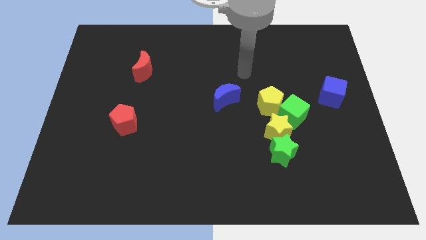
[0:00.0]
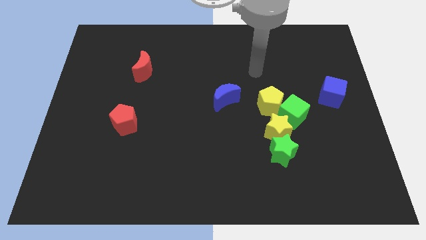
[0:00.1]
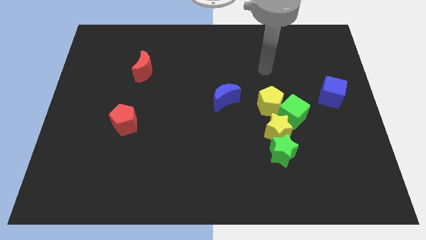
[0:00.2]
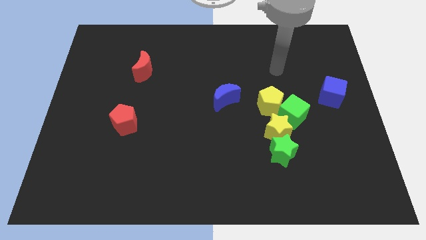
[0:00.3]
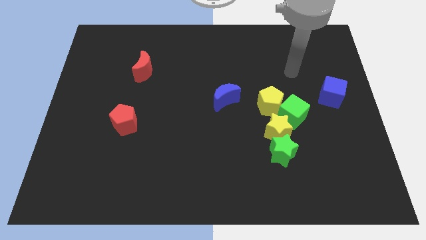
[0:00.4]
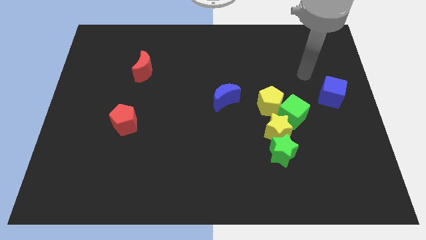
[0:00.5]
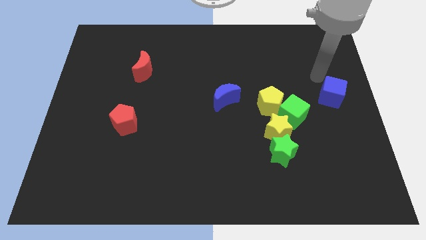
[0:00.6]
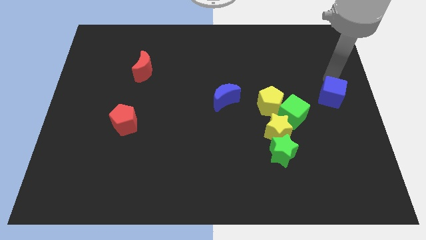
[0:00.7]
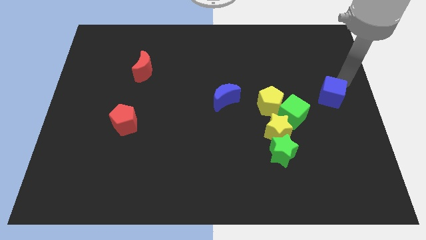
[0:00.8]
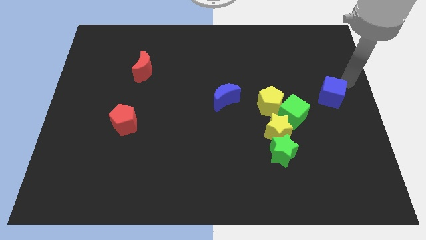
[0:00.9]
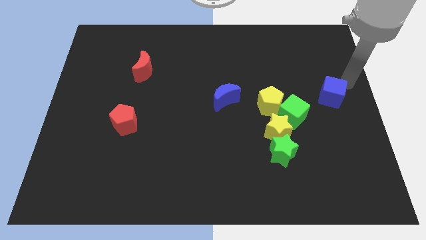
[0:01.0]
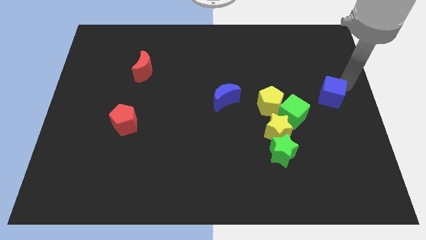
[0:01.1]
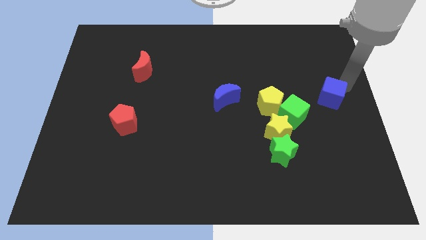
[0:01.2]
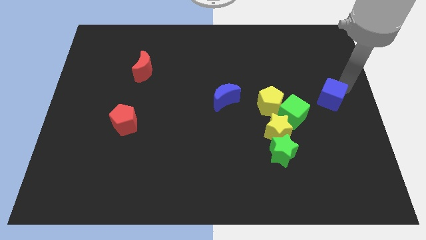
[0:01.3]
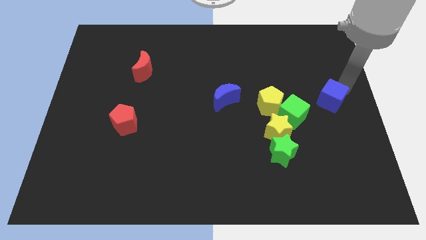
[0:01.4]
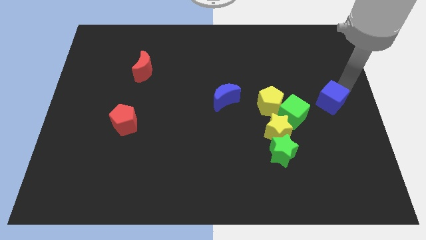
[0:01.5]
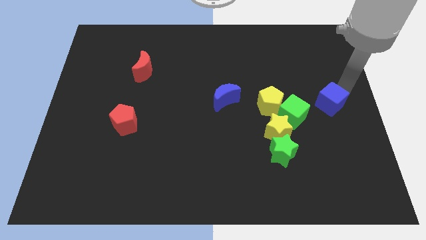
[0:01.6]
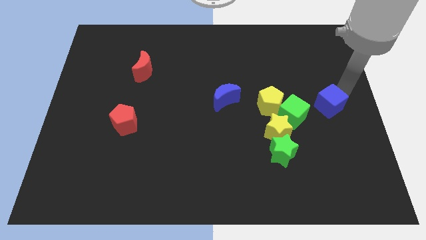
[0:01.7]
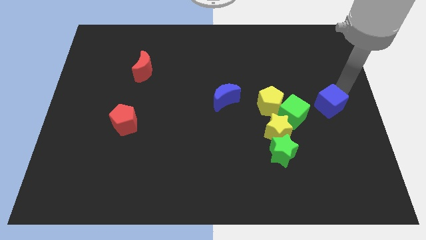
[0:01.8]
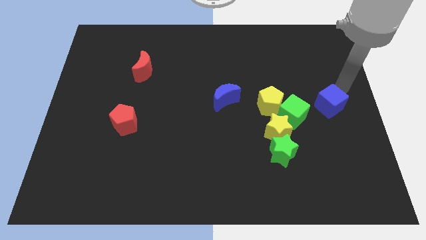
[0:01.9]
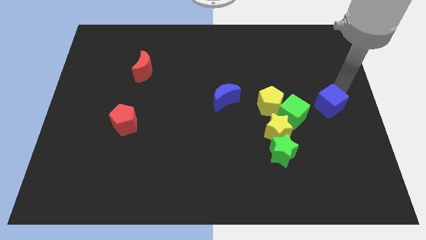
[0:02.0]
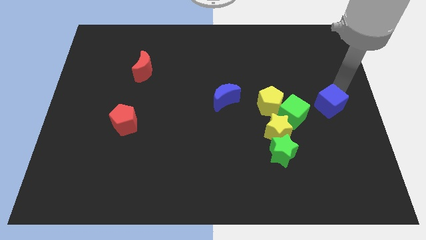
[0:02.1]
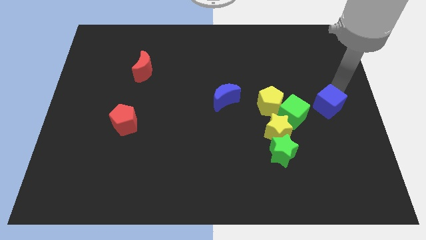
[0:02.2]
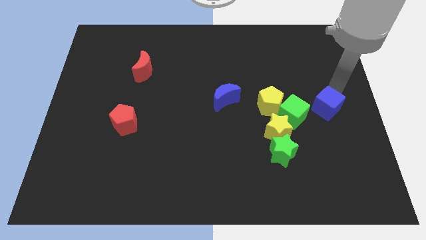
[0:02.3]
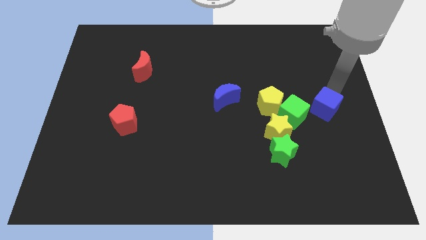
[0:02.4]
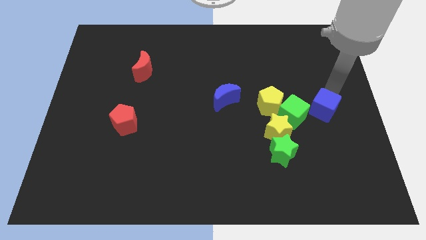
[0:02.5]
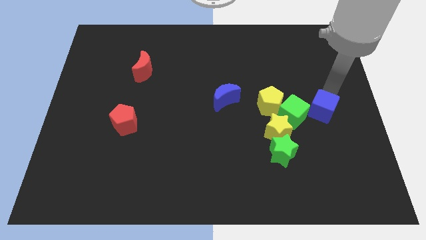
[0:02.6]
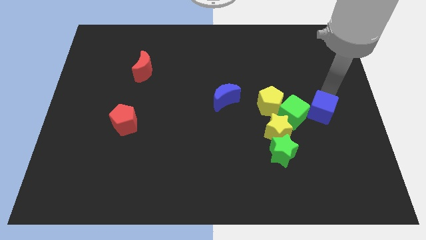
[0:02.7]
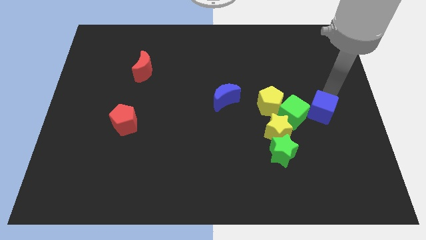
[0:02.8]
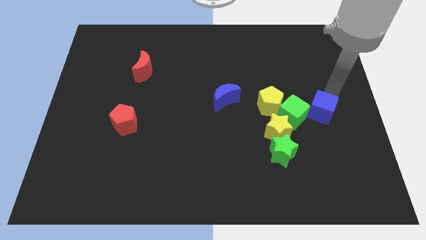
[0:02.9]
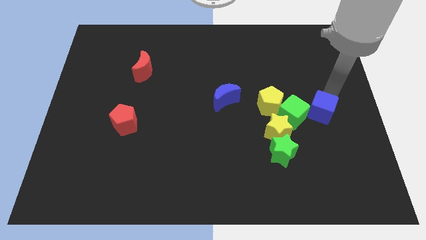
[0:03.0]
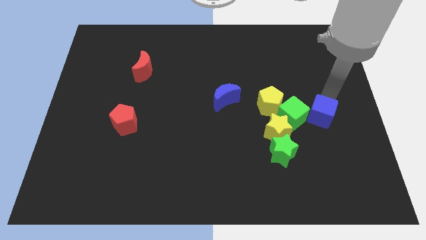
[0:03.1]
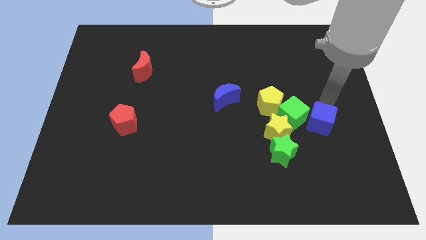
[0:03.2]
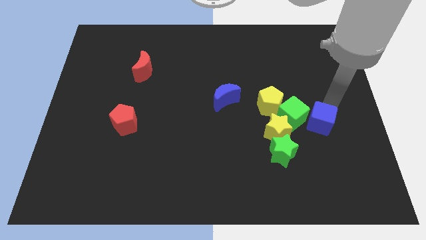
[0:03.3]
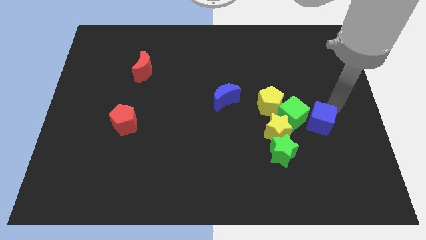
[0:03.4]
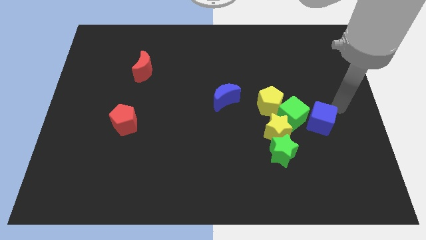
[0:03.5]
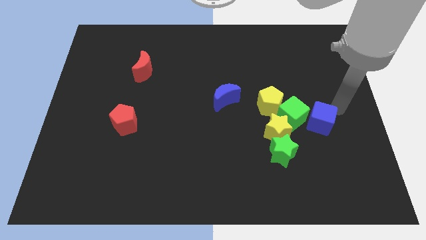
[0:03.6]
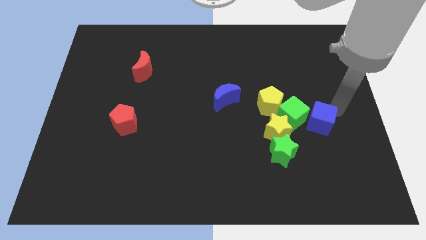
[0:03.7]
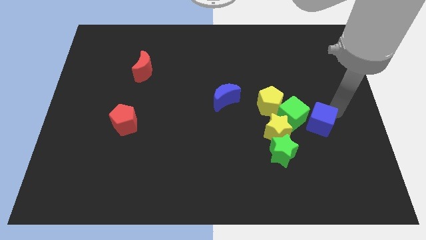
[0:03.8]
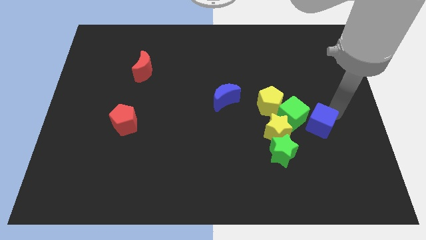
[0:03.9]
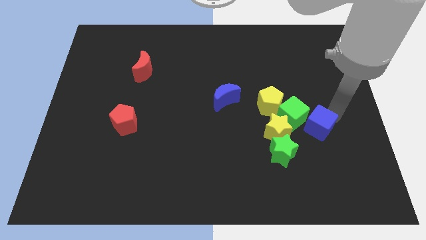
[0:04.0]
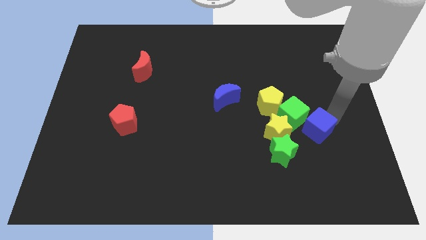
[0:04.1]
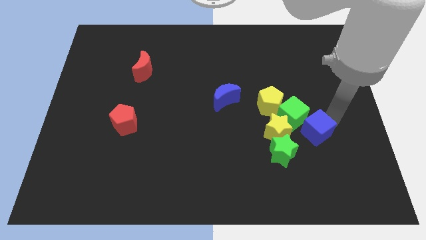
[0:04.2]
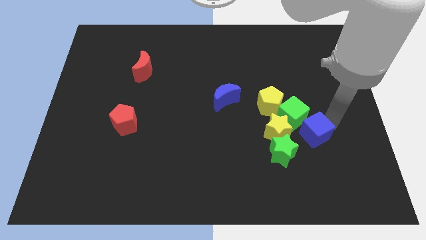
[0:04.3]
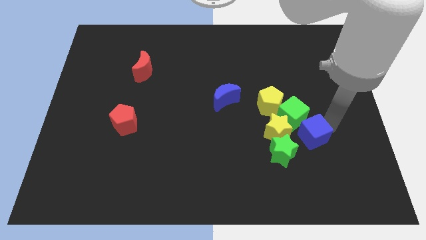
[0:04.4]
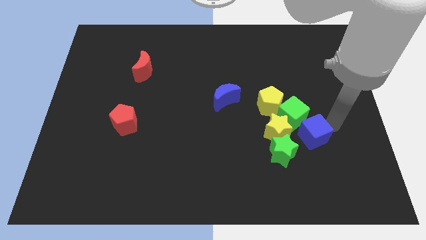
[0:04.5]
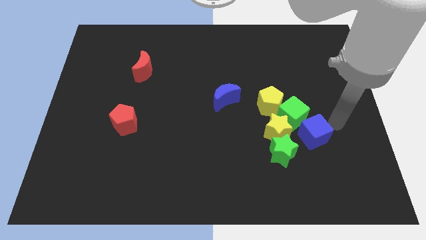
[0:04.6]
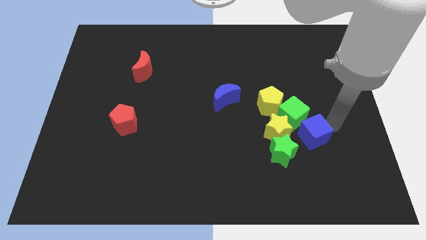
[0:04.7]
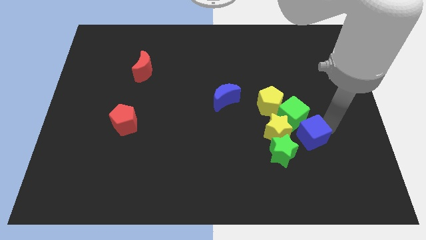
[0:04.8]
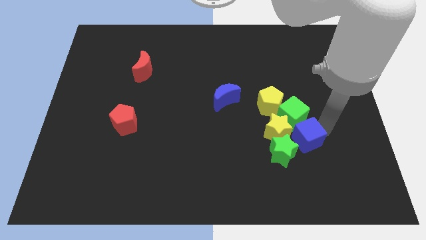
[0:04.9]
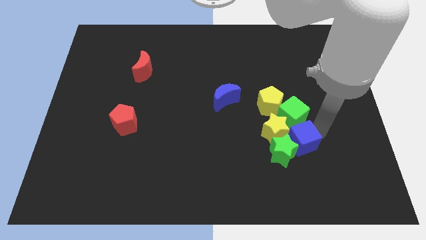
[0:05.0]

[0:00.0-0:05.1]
move the blue cube towards the green star

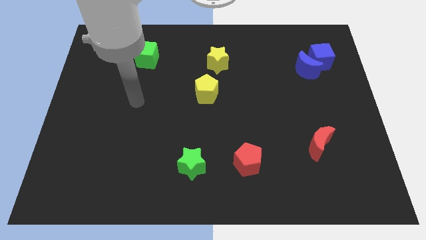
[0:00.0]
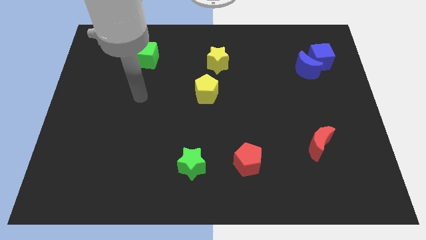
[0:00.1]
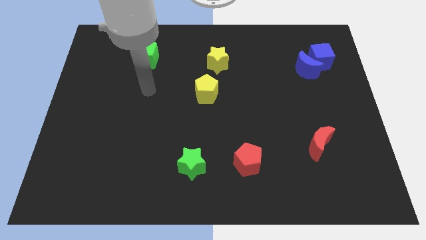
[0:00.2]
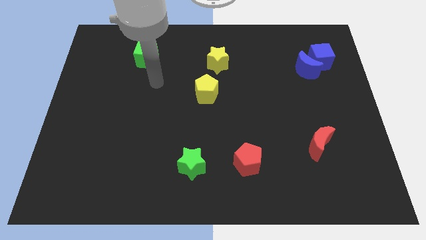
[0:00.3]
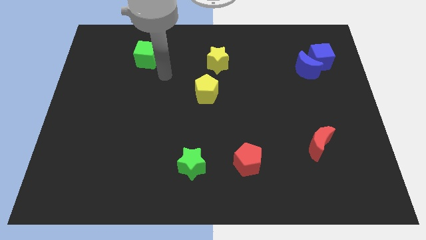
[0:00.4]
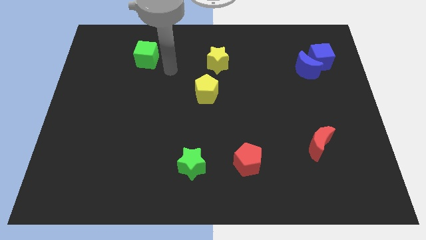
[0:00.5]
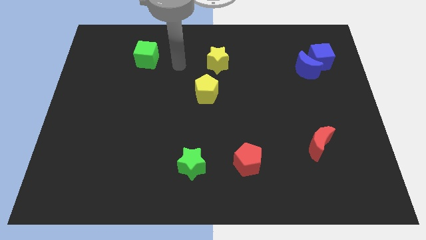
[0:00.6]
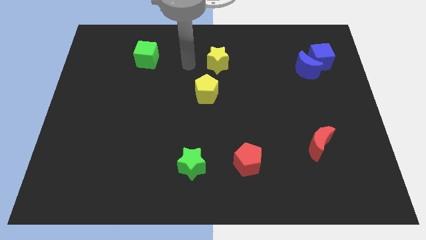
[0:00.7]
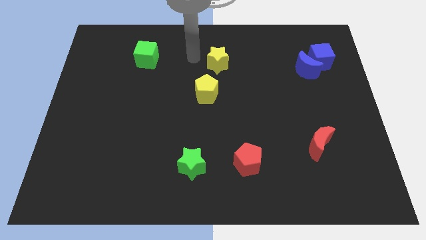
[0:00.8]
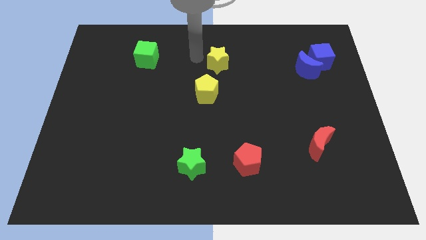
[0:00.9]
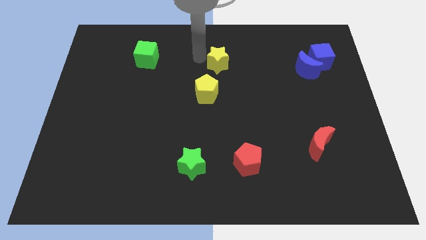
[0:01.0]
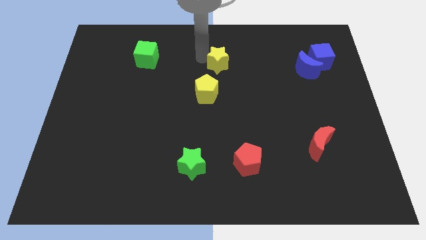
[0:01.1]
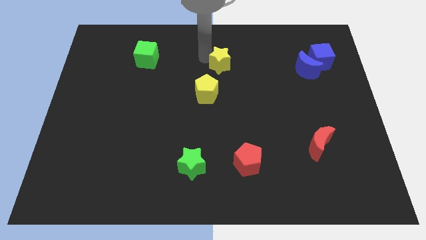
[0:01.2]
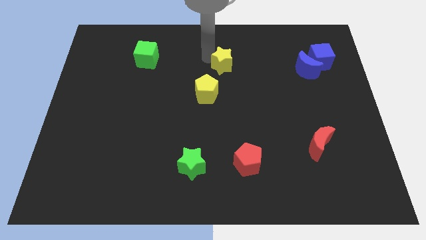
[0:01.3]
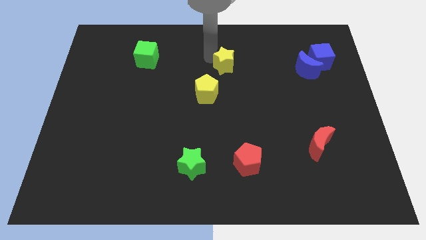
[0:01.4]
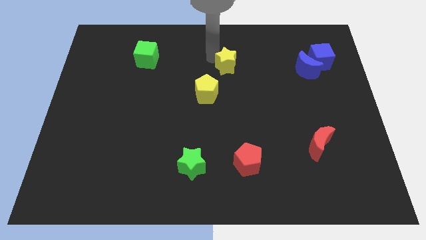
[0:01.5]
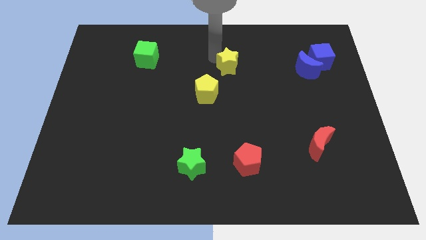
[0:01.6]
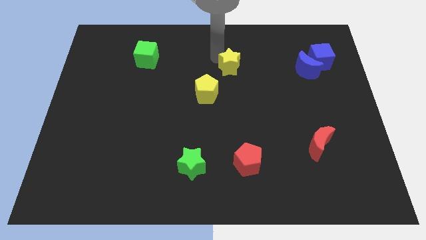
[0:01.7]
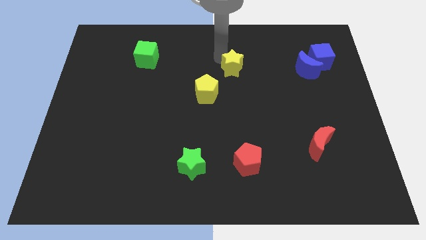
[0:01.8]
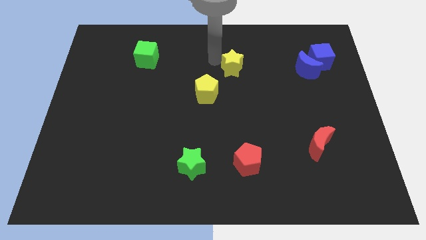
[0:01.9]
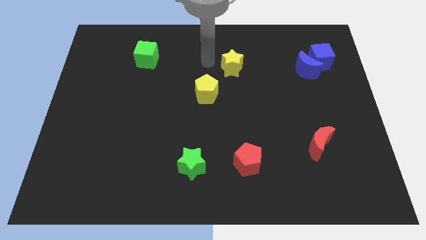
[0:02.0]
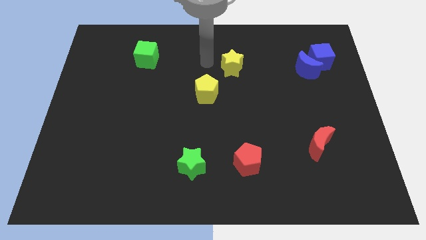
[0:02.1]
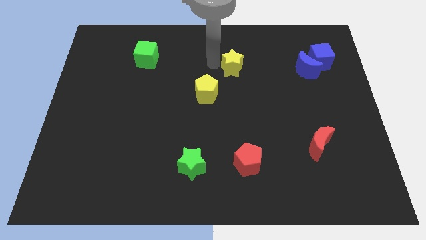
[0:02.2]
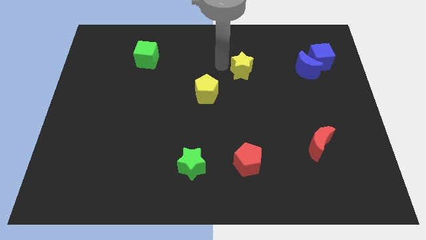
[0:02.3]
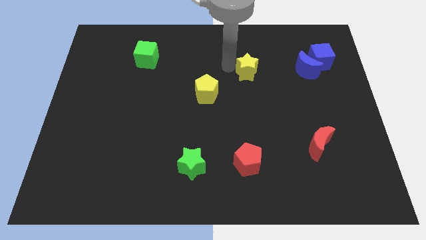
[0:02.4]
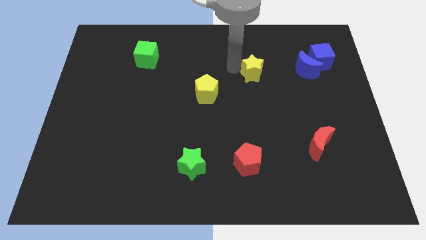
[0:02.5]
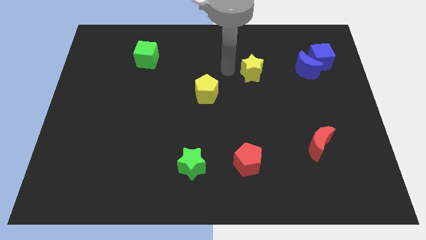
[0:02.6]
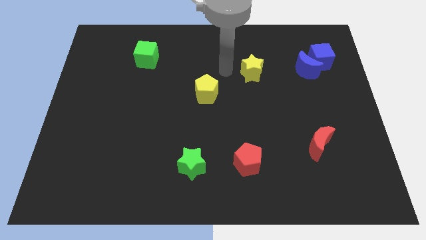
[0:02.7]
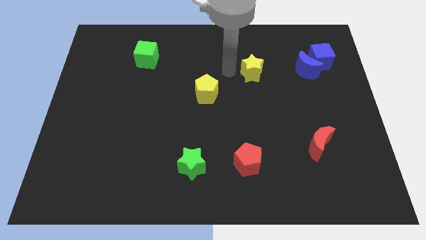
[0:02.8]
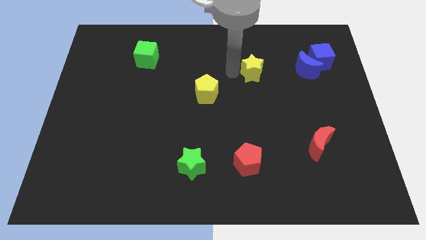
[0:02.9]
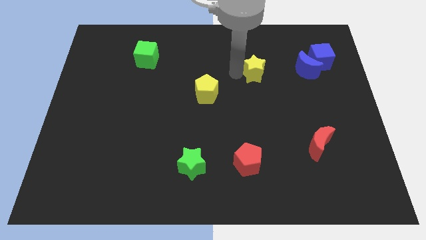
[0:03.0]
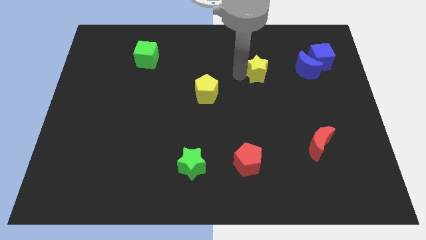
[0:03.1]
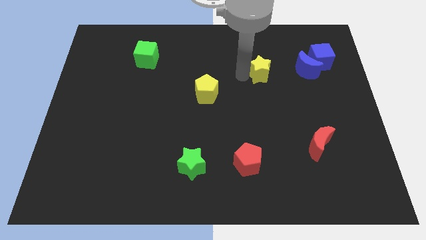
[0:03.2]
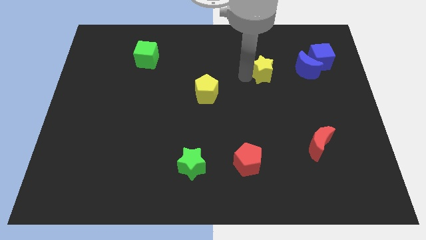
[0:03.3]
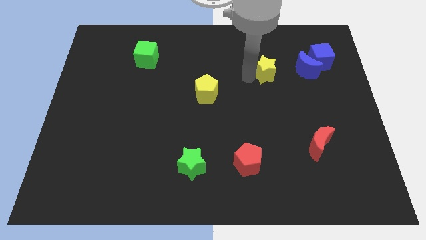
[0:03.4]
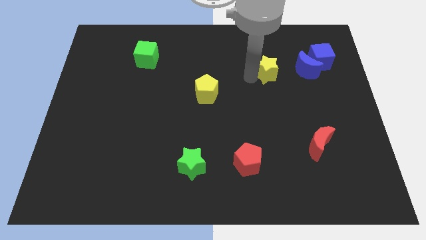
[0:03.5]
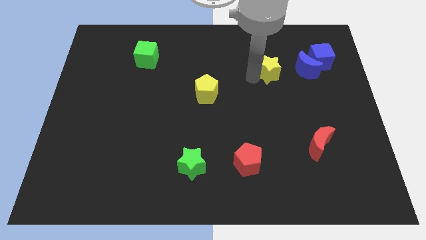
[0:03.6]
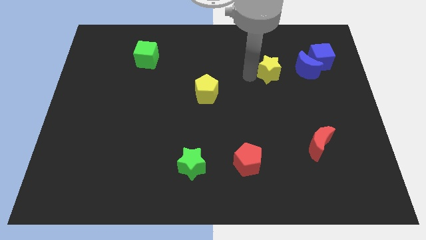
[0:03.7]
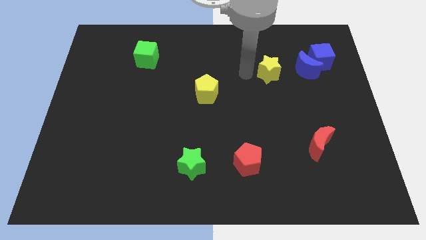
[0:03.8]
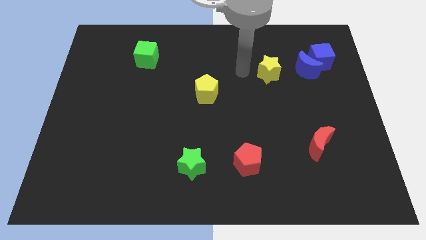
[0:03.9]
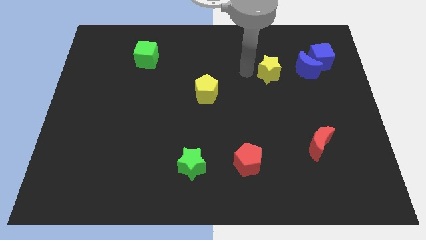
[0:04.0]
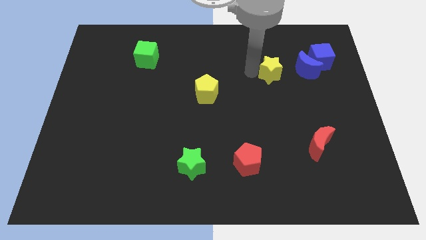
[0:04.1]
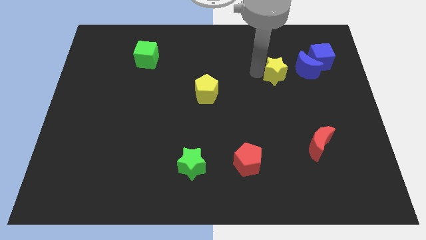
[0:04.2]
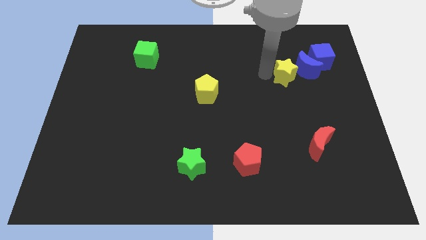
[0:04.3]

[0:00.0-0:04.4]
put the yellow star to the blue moon
